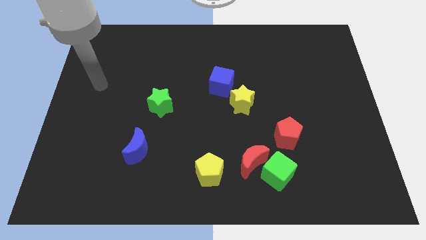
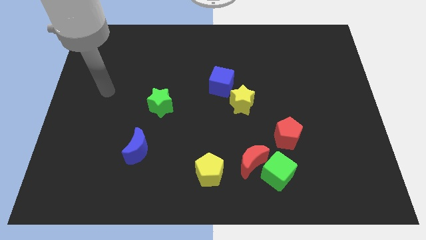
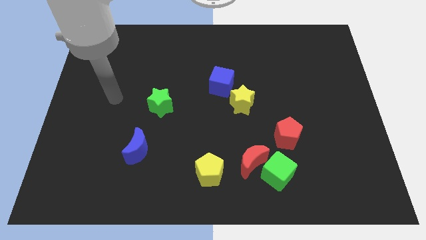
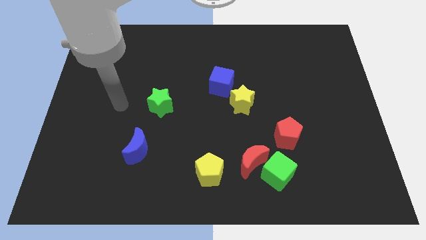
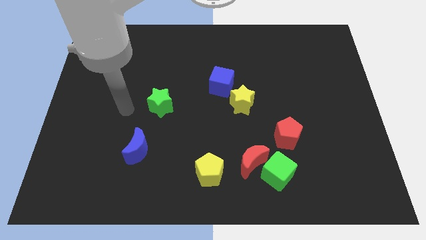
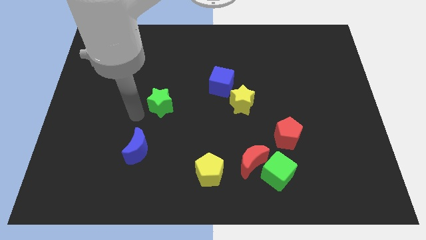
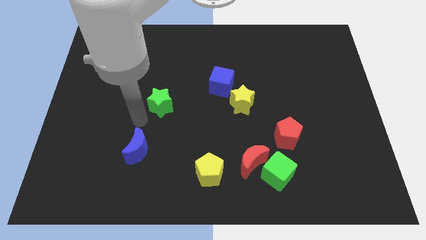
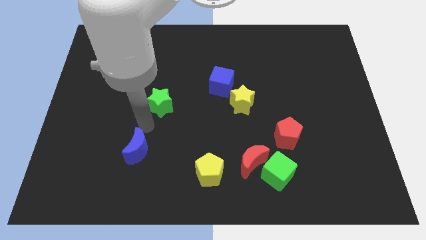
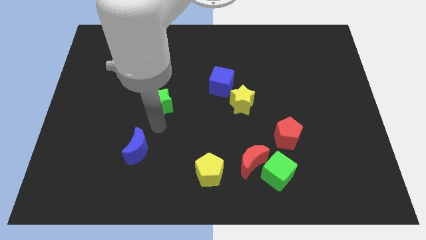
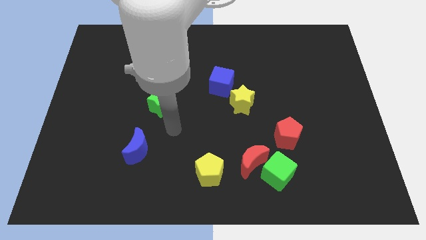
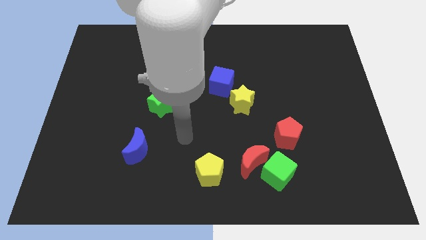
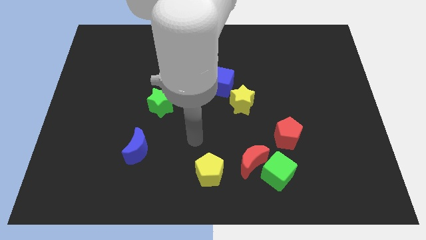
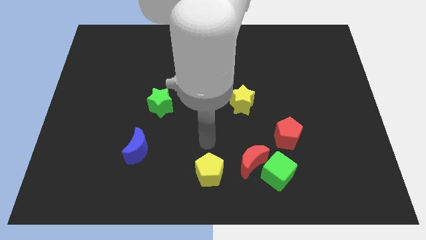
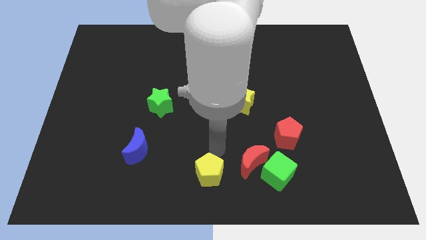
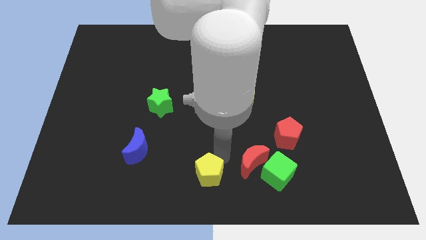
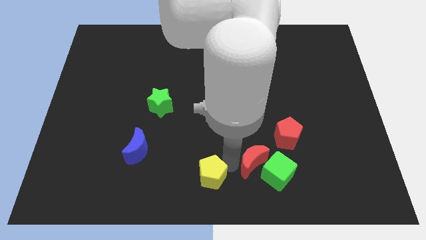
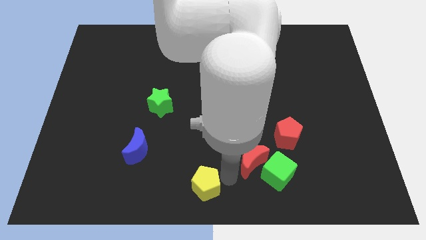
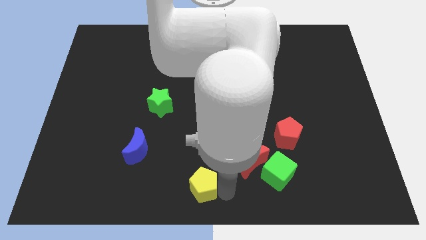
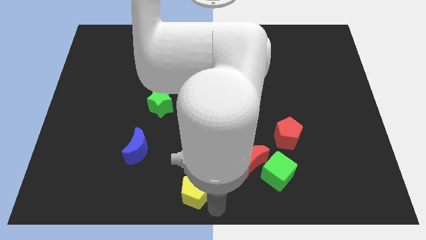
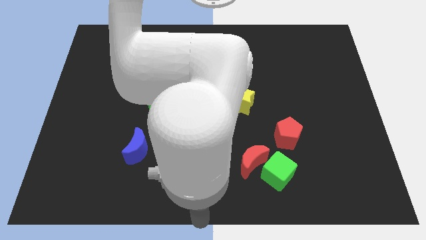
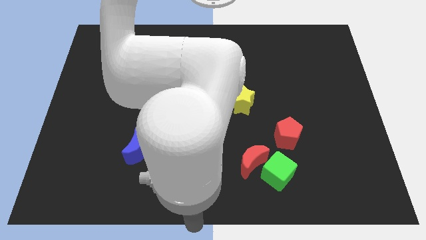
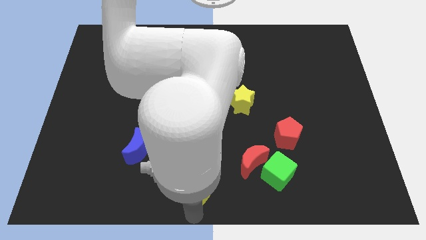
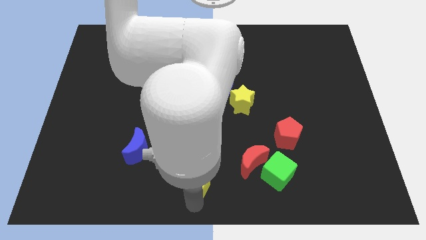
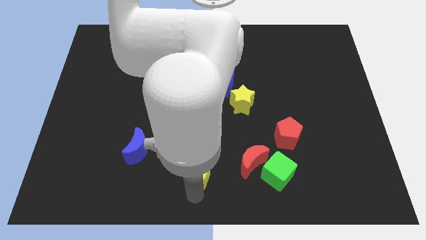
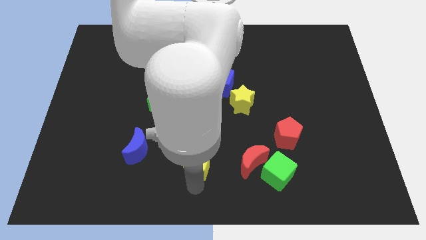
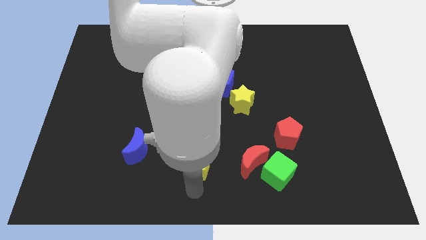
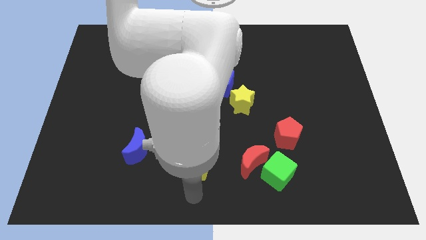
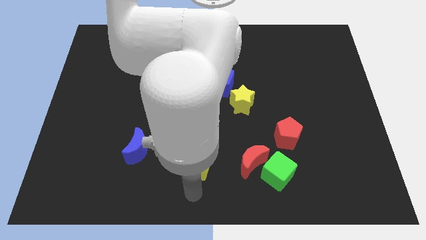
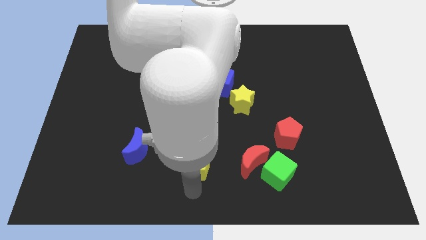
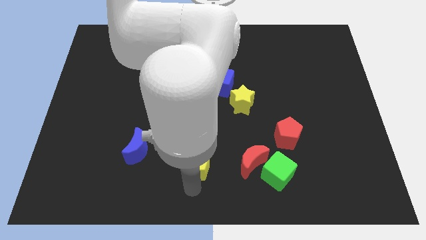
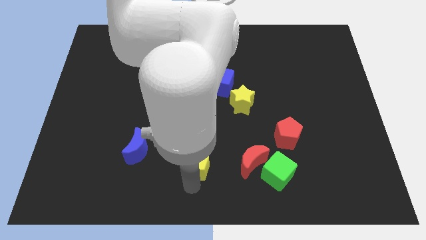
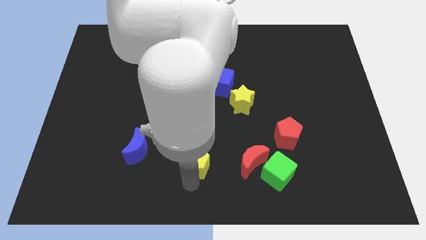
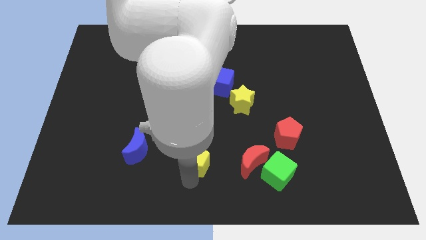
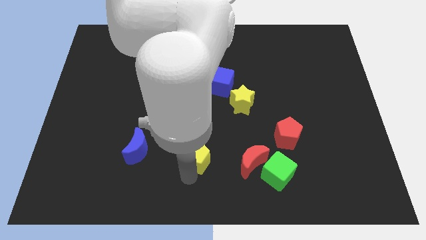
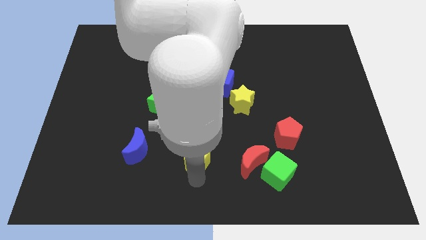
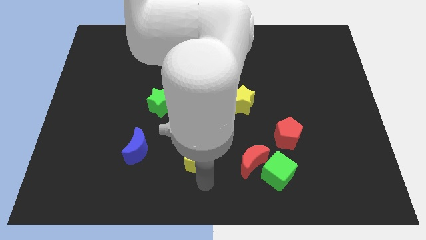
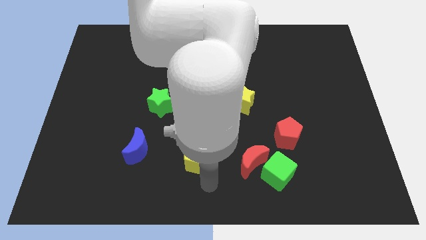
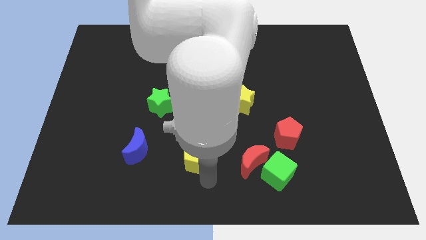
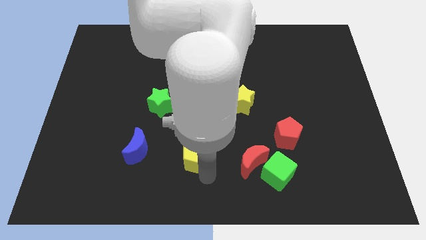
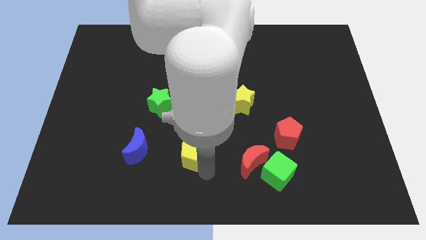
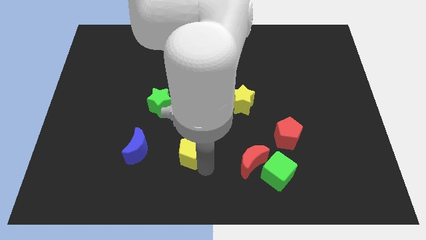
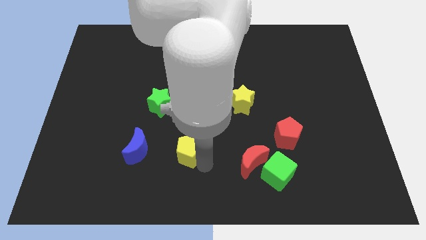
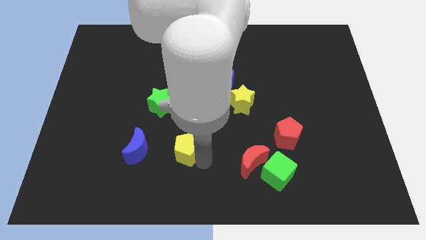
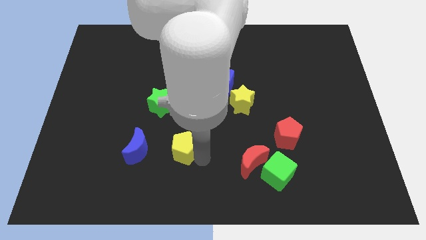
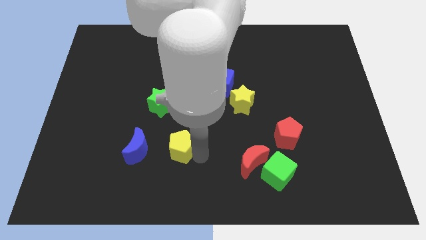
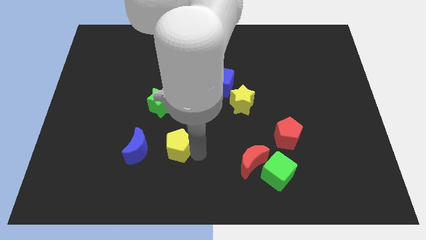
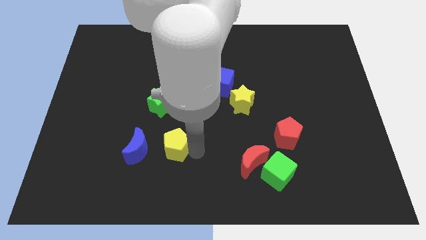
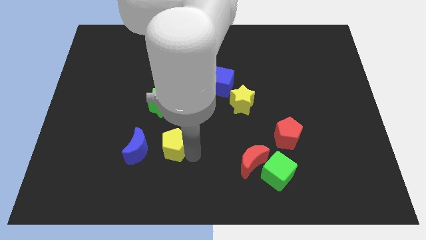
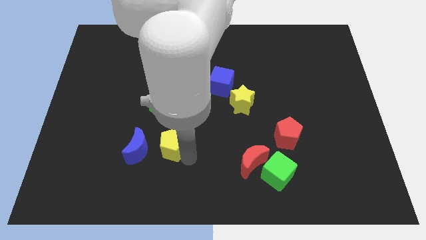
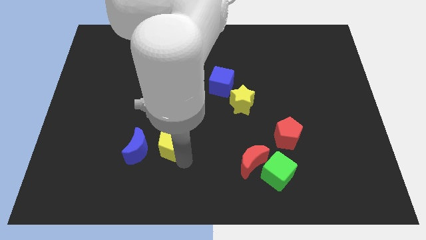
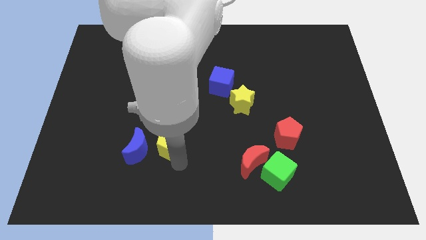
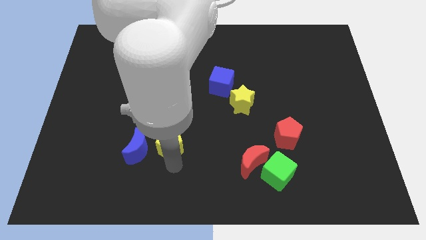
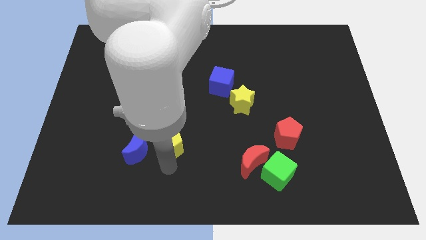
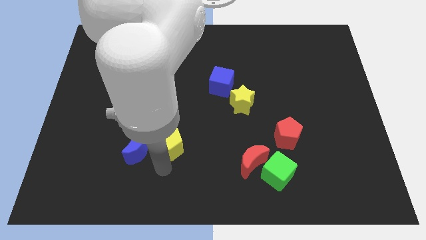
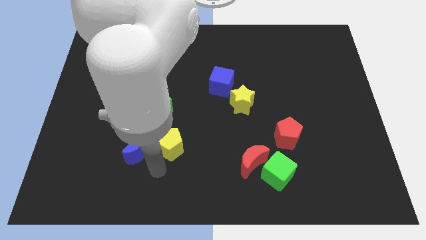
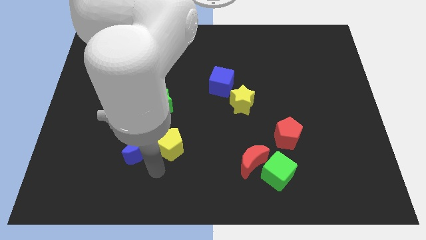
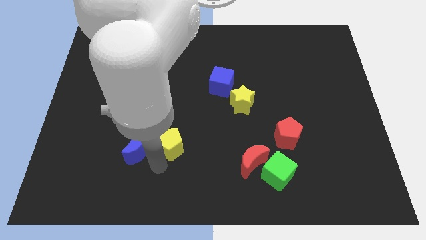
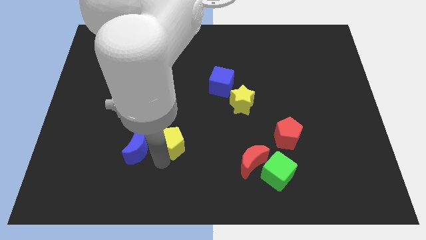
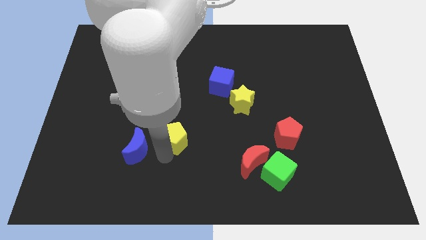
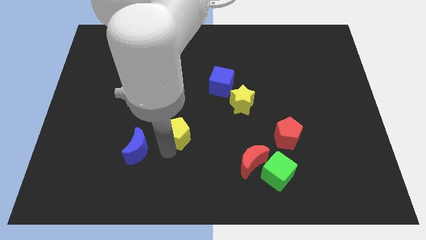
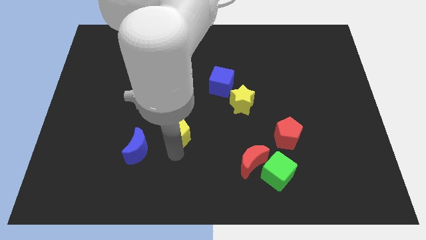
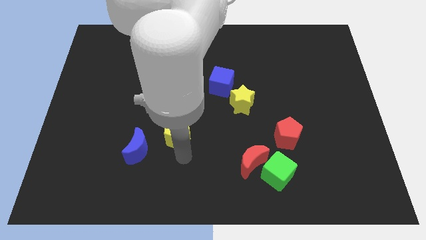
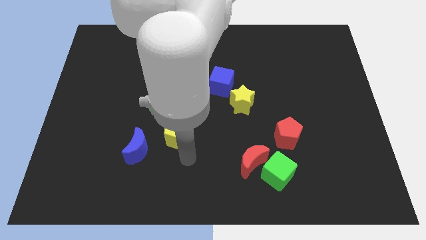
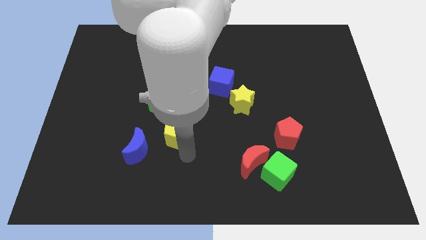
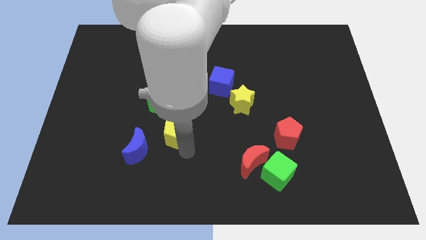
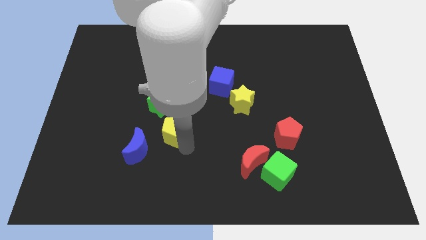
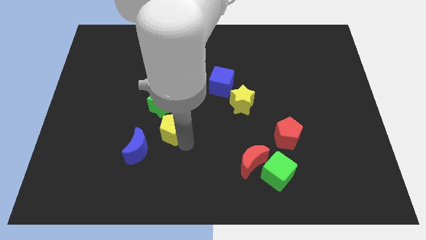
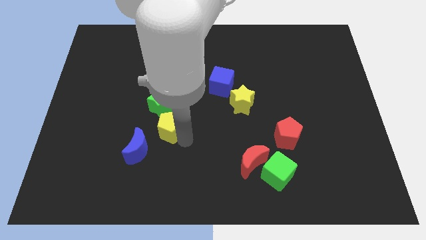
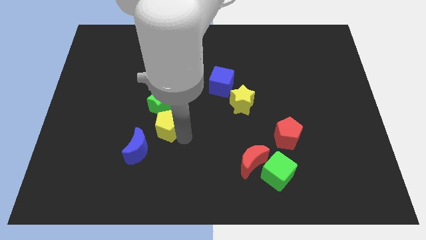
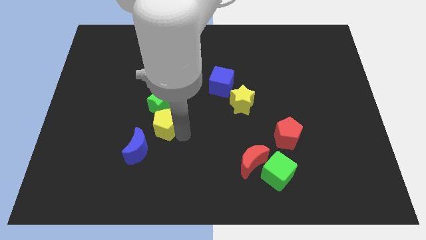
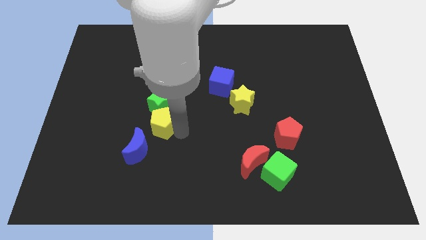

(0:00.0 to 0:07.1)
move the yellow pentagon close to the green star

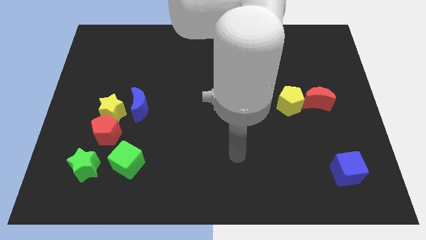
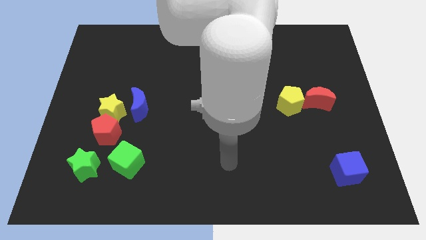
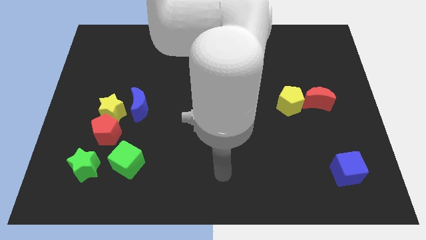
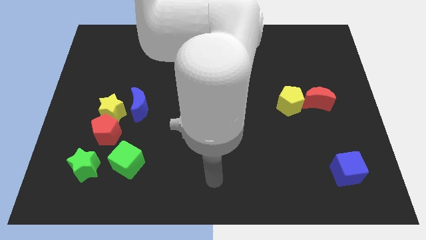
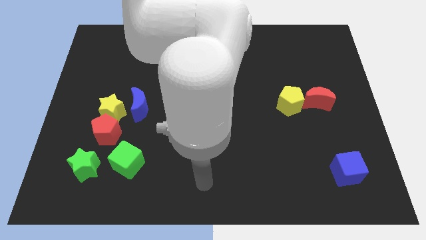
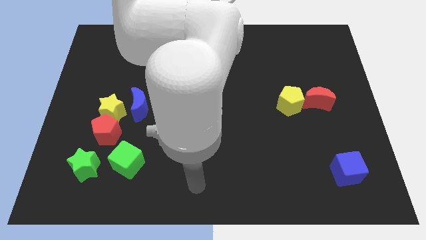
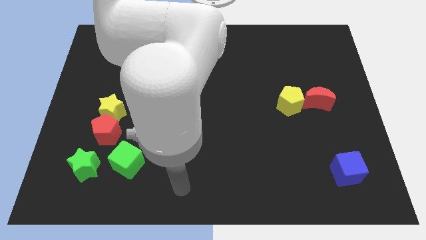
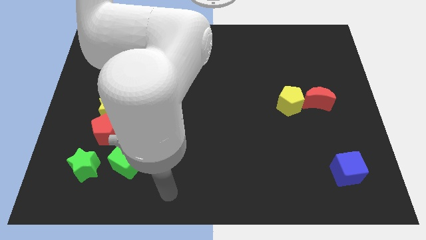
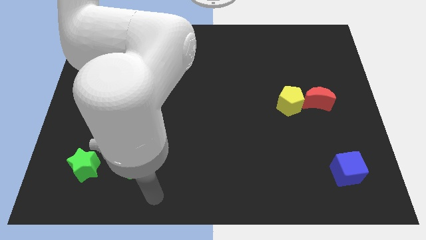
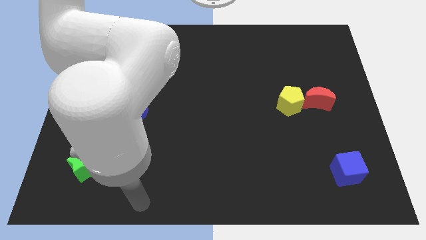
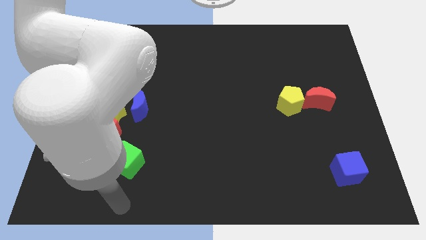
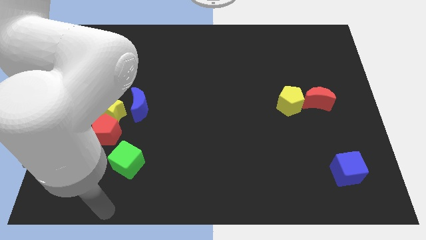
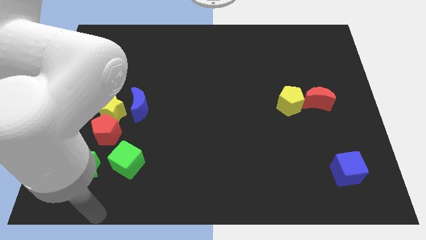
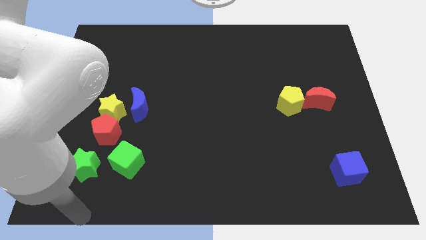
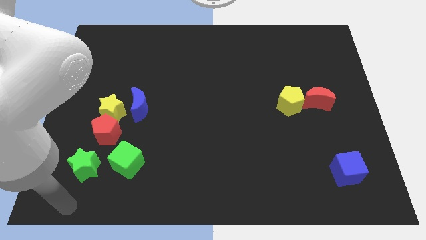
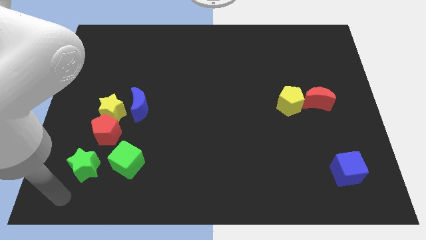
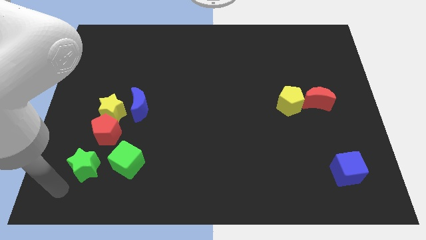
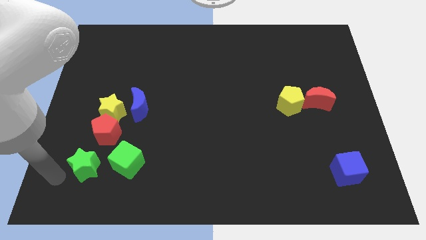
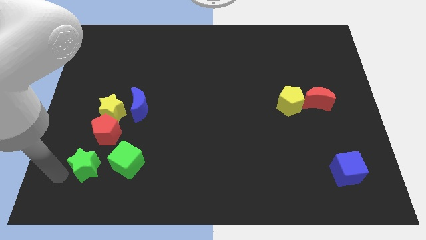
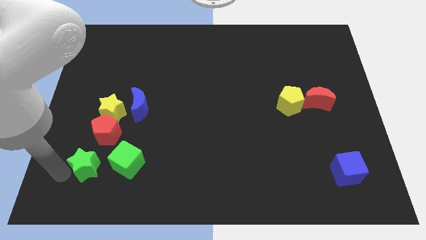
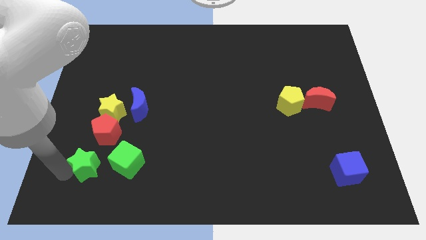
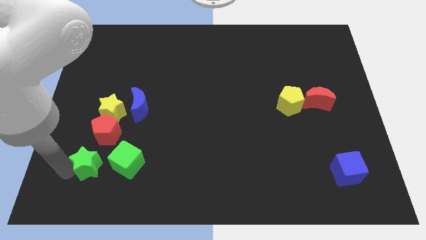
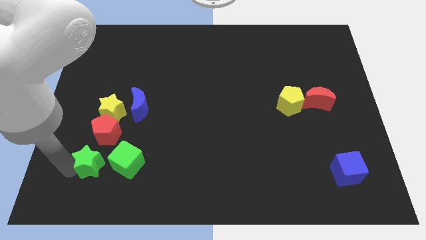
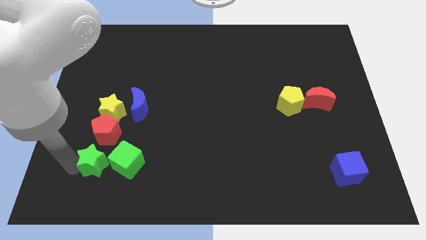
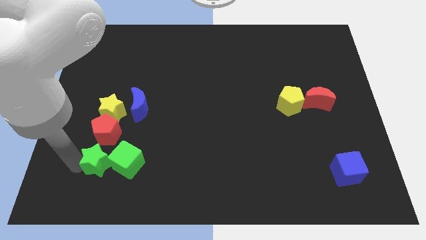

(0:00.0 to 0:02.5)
push the green star close to the green cube
